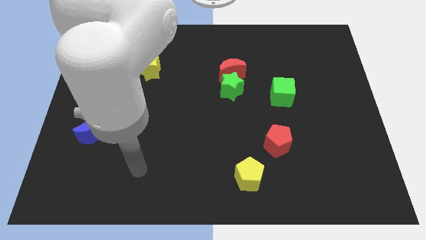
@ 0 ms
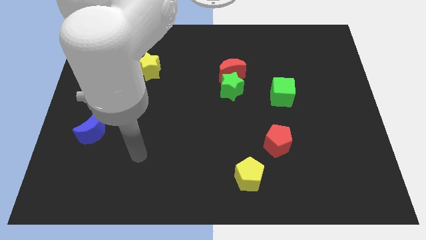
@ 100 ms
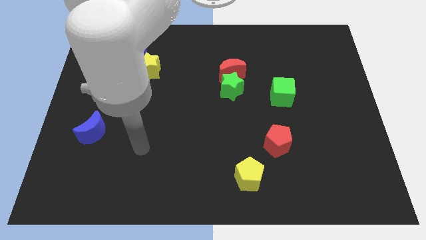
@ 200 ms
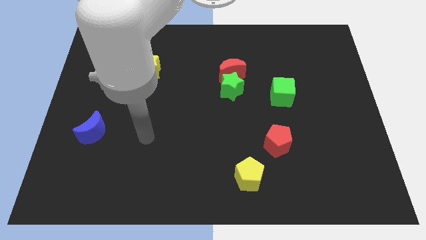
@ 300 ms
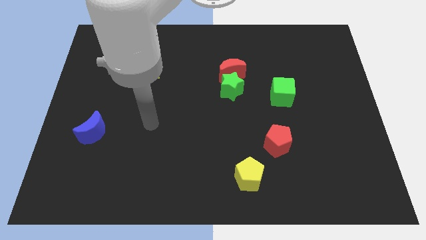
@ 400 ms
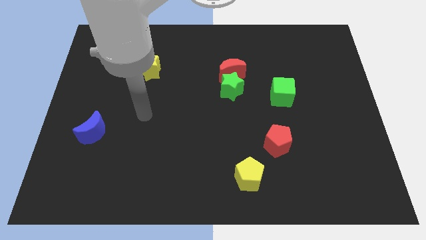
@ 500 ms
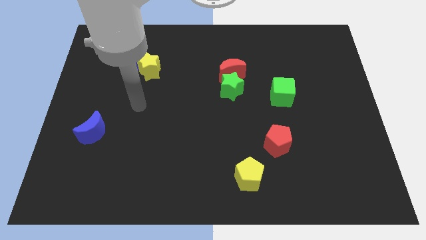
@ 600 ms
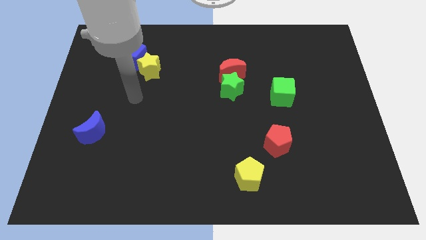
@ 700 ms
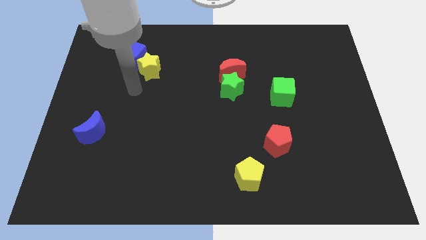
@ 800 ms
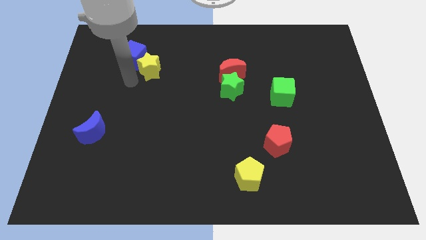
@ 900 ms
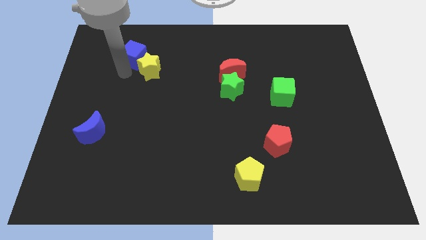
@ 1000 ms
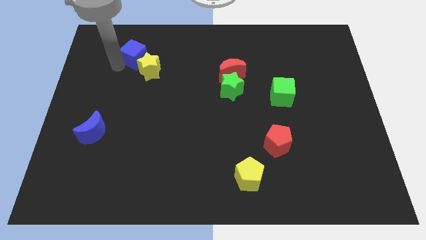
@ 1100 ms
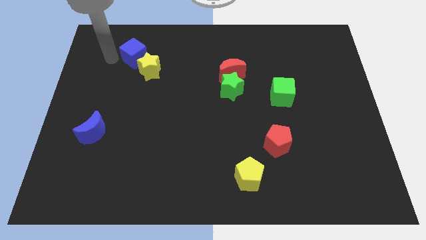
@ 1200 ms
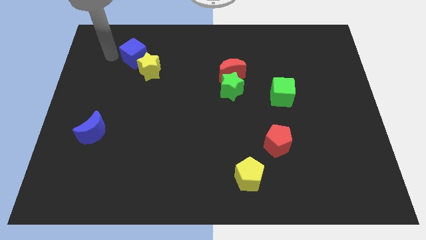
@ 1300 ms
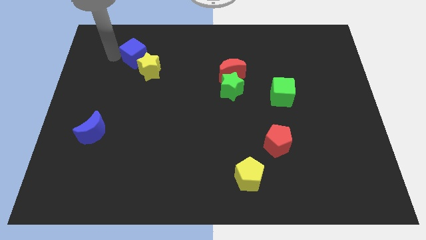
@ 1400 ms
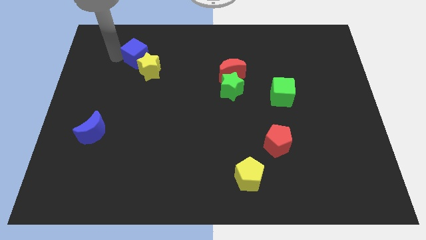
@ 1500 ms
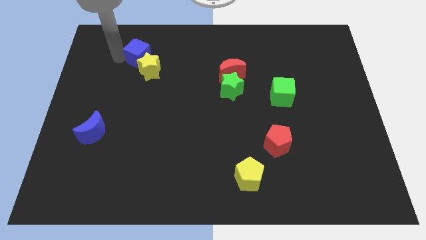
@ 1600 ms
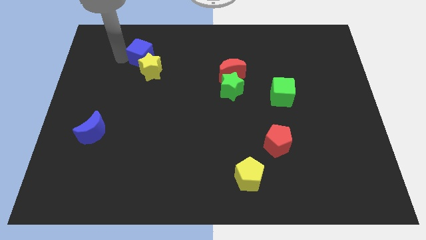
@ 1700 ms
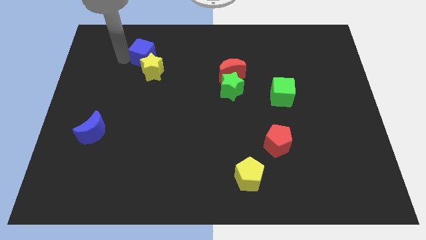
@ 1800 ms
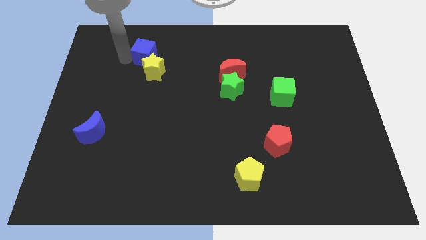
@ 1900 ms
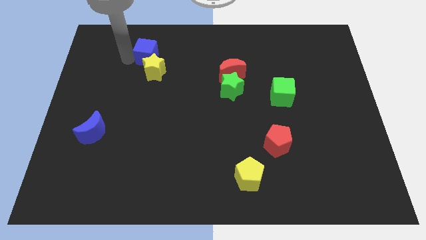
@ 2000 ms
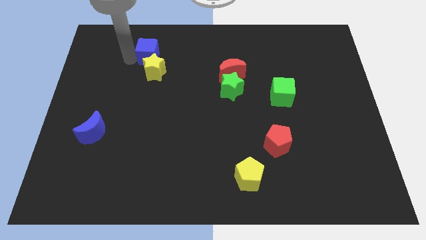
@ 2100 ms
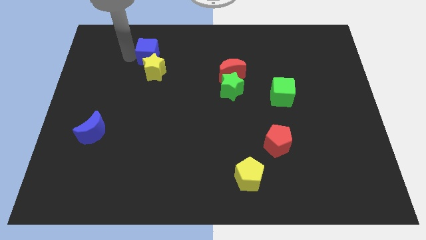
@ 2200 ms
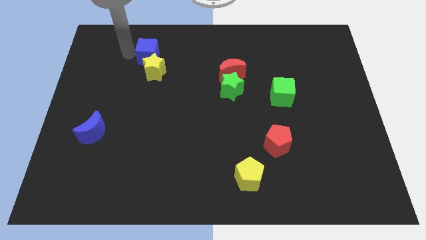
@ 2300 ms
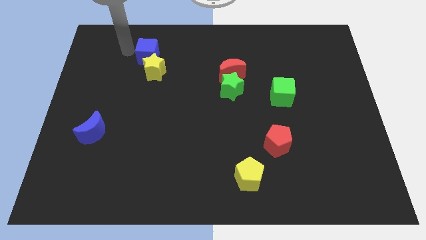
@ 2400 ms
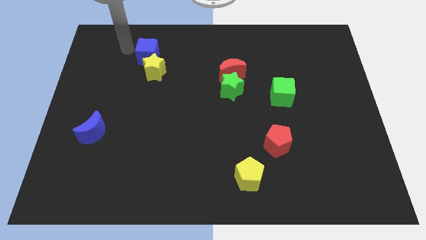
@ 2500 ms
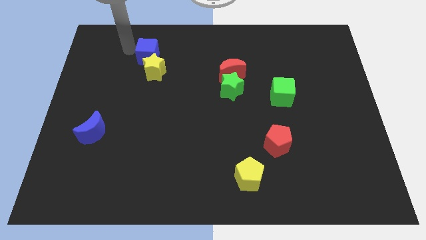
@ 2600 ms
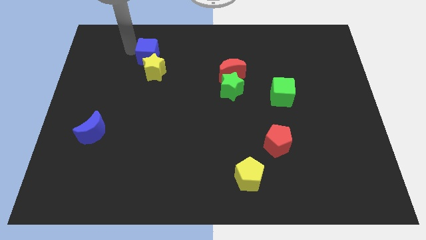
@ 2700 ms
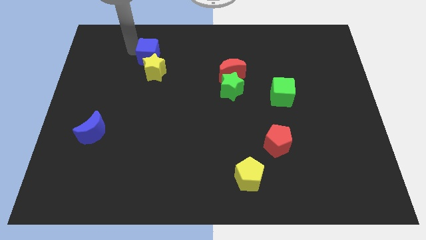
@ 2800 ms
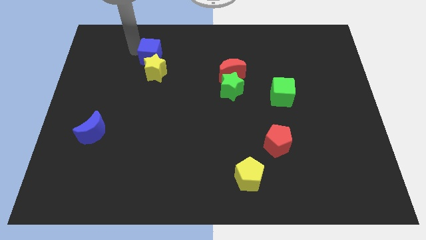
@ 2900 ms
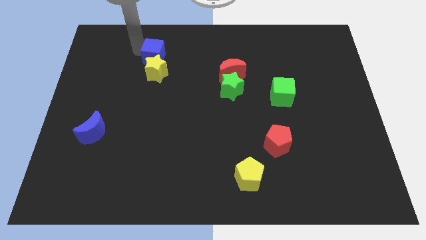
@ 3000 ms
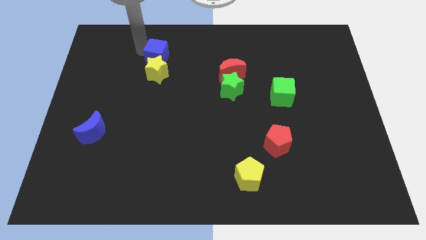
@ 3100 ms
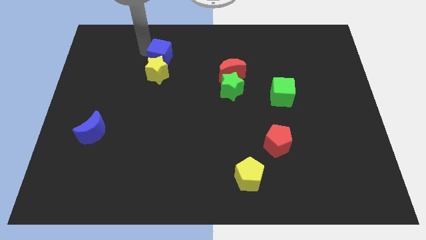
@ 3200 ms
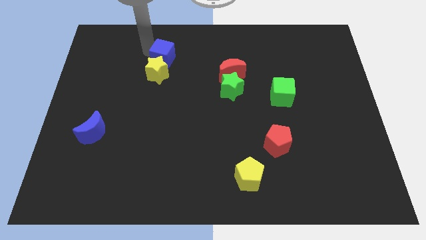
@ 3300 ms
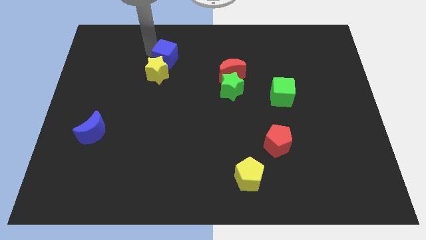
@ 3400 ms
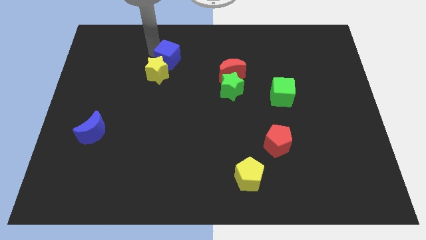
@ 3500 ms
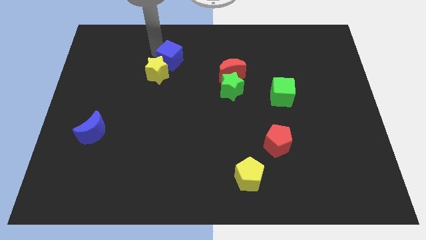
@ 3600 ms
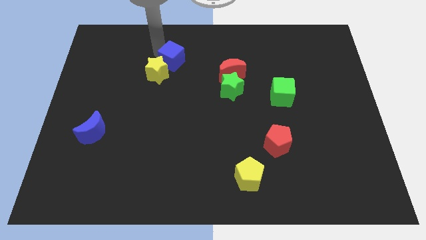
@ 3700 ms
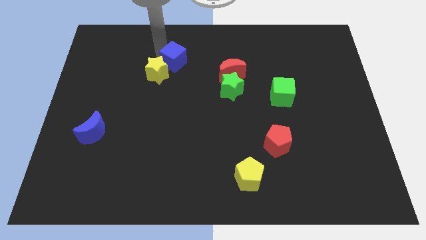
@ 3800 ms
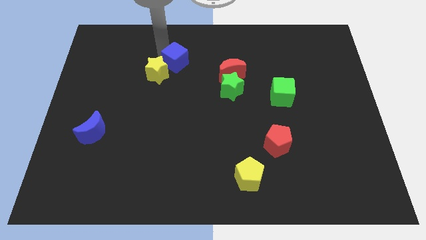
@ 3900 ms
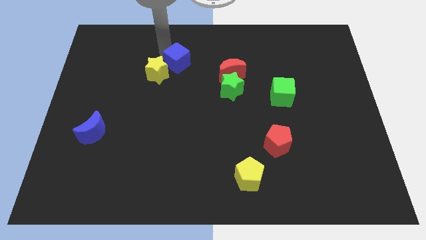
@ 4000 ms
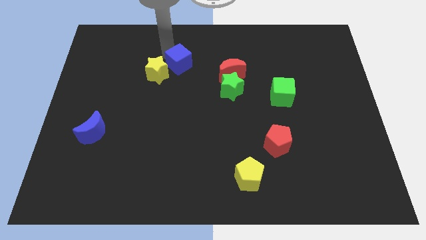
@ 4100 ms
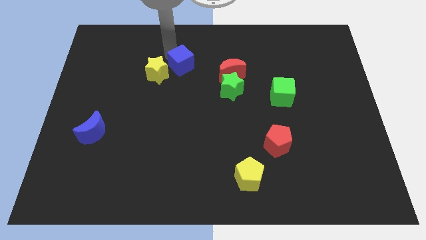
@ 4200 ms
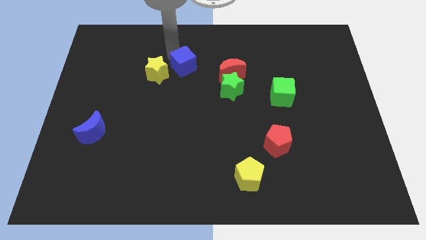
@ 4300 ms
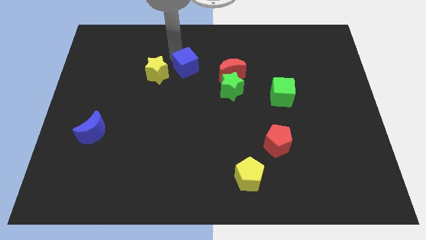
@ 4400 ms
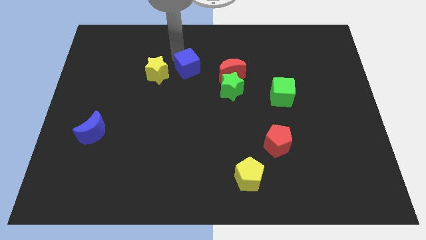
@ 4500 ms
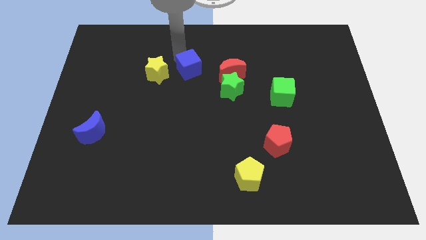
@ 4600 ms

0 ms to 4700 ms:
push the blue cube to the center of the board

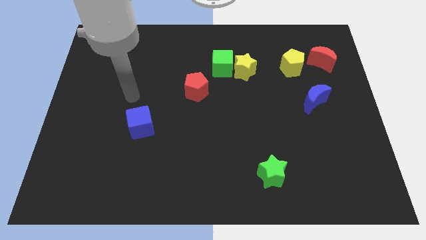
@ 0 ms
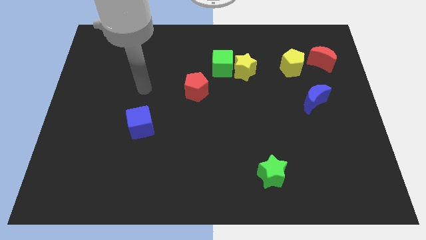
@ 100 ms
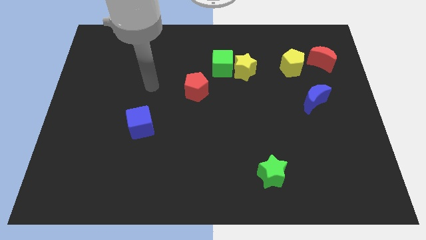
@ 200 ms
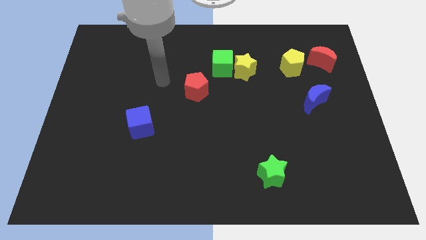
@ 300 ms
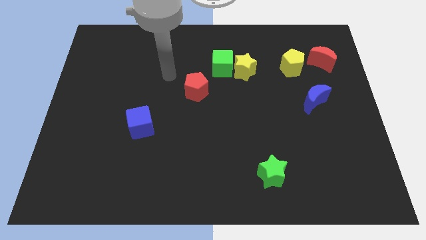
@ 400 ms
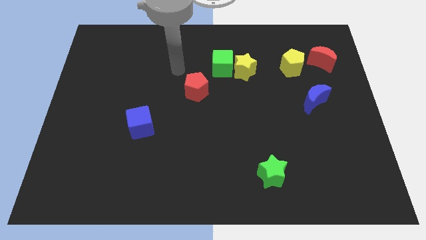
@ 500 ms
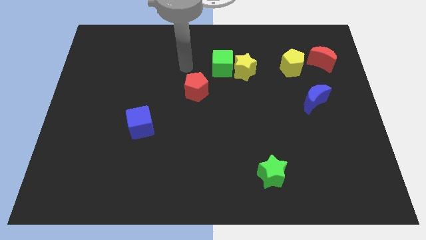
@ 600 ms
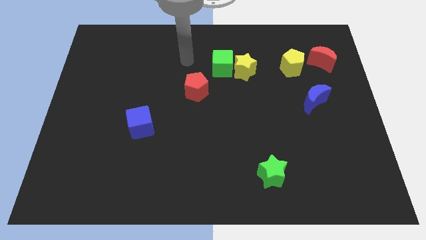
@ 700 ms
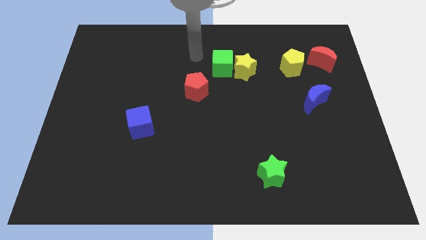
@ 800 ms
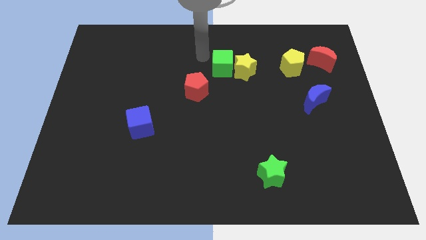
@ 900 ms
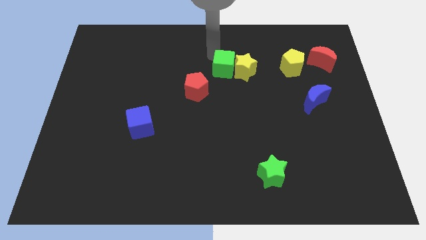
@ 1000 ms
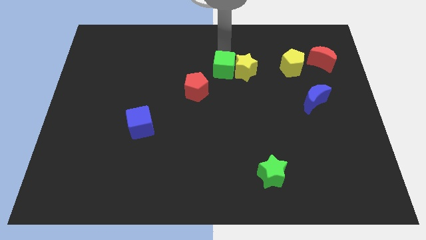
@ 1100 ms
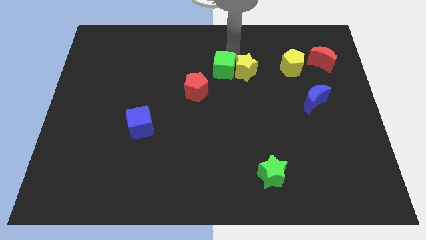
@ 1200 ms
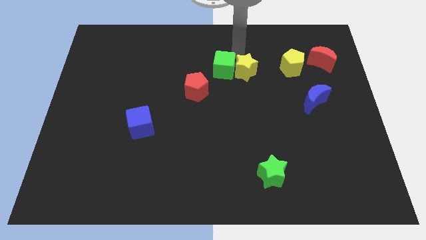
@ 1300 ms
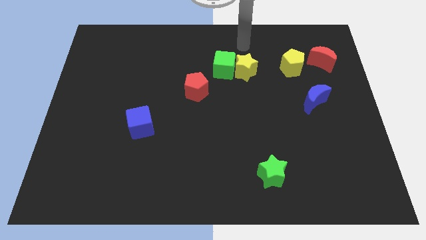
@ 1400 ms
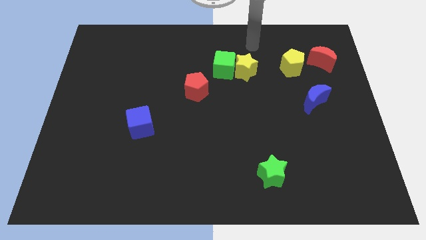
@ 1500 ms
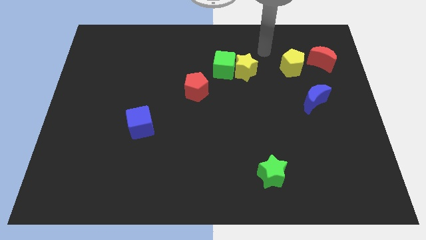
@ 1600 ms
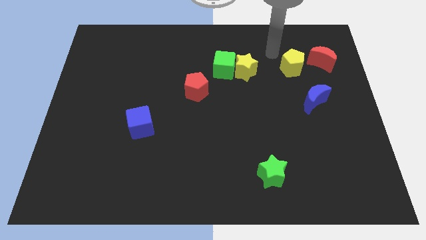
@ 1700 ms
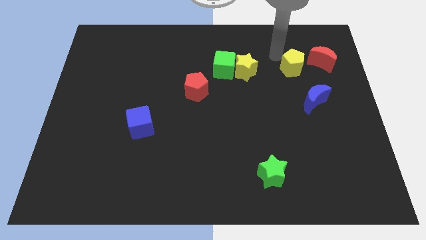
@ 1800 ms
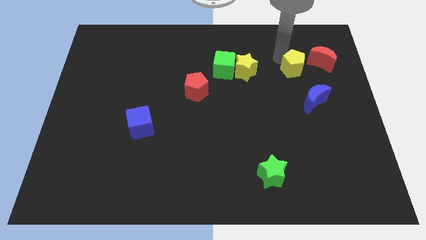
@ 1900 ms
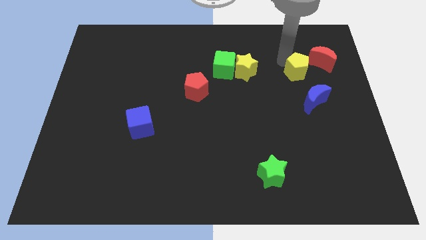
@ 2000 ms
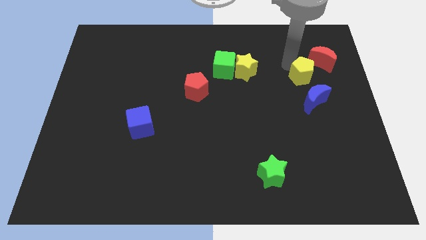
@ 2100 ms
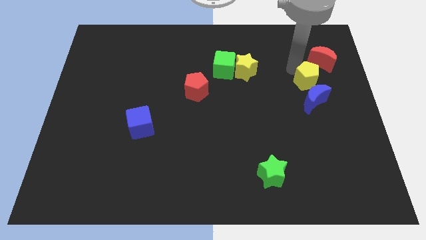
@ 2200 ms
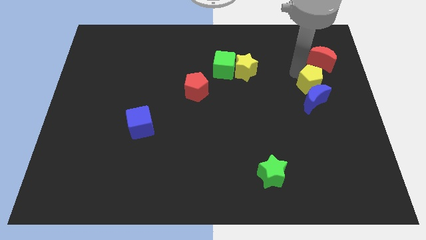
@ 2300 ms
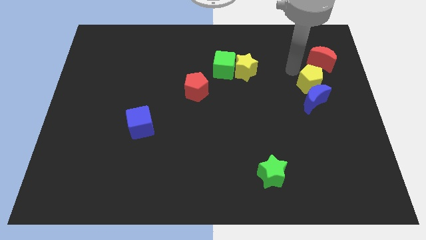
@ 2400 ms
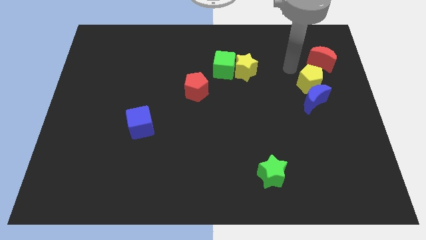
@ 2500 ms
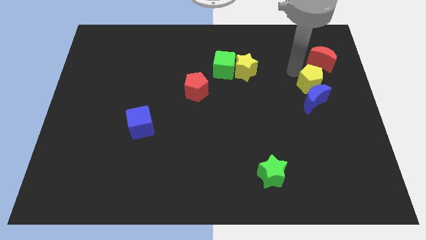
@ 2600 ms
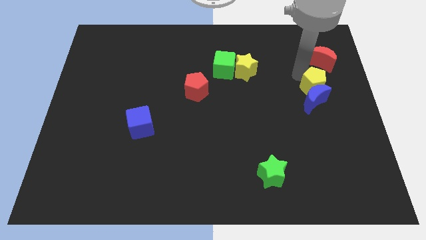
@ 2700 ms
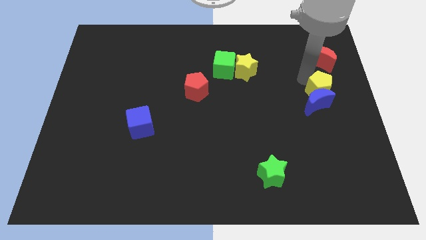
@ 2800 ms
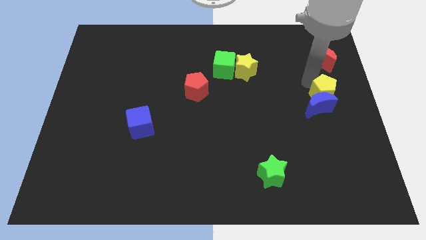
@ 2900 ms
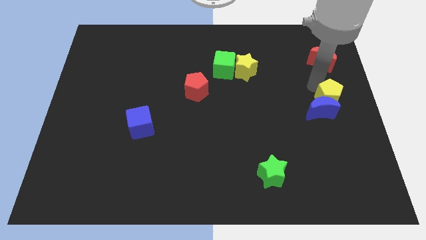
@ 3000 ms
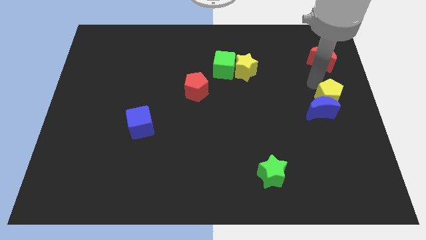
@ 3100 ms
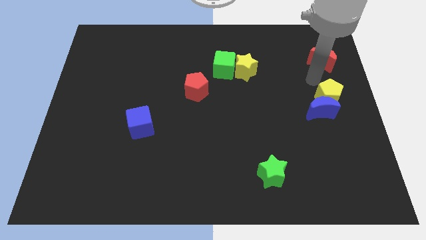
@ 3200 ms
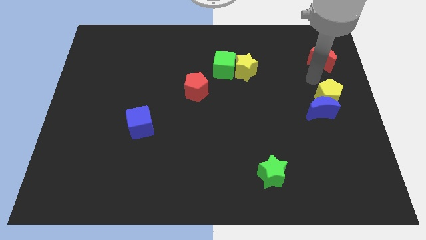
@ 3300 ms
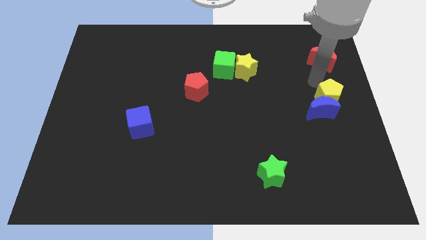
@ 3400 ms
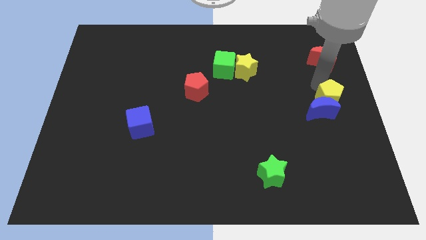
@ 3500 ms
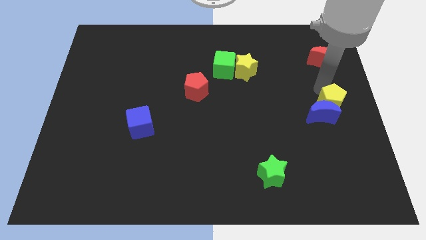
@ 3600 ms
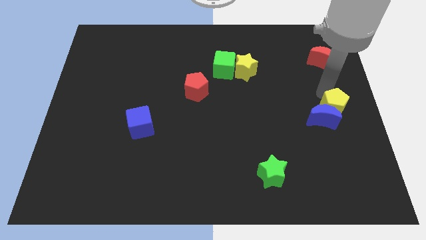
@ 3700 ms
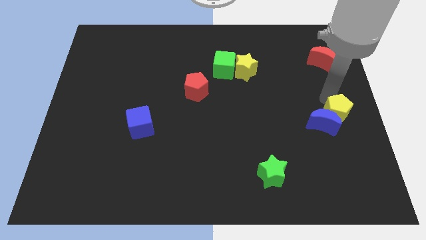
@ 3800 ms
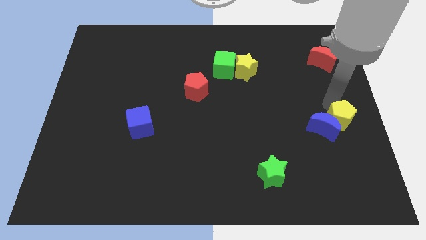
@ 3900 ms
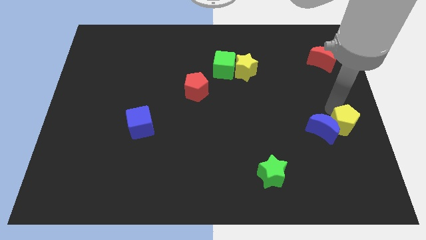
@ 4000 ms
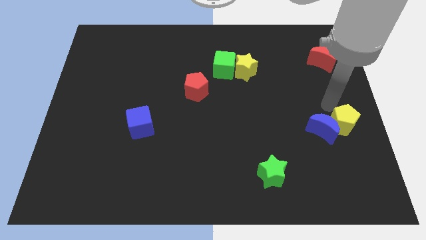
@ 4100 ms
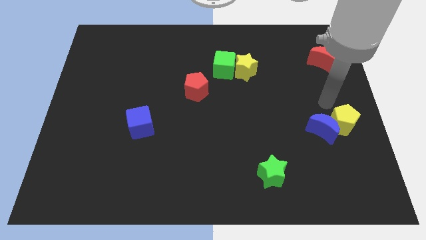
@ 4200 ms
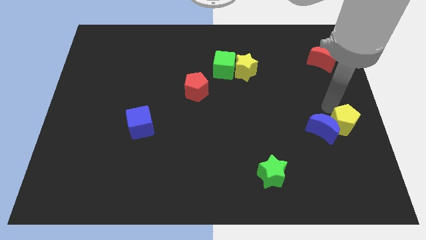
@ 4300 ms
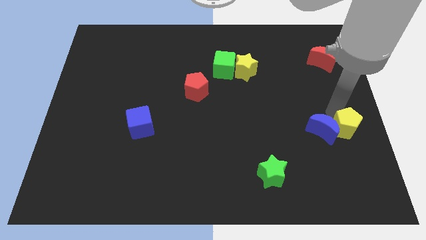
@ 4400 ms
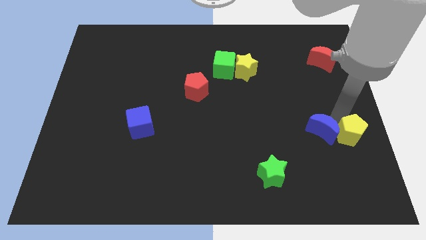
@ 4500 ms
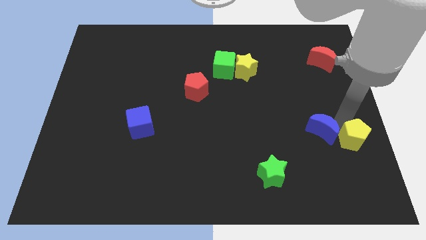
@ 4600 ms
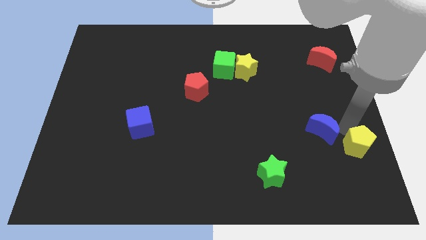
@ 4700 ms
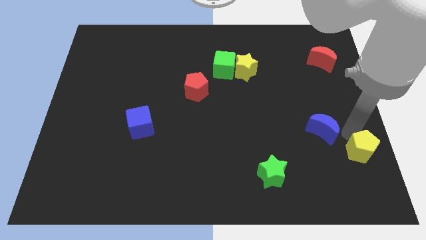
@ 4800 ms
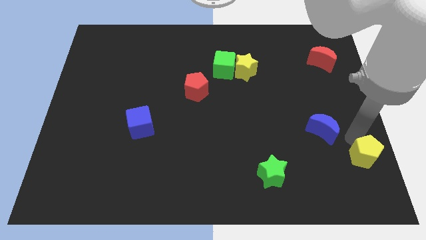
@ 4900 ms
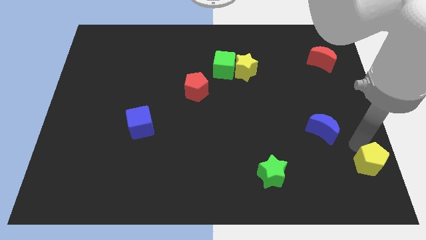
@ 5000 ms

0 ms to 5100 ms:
slide the yellow pentagon to the bottom right of the board
